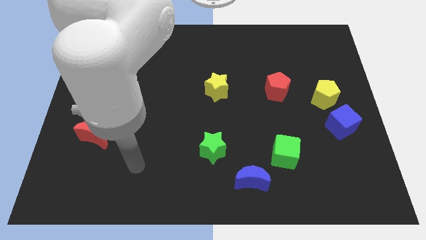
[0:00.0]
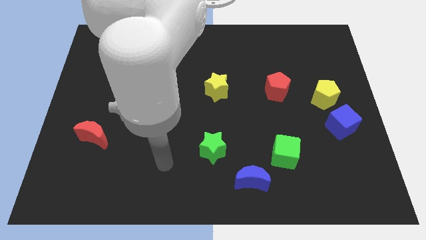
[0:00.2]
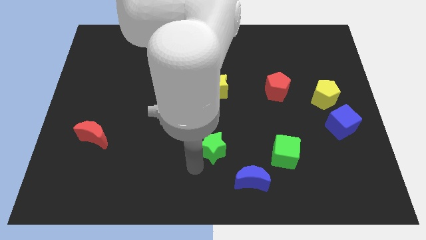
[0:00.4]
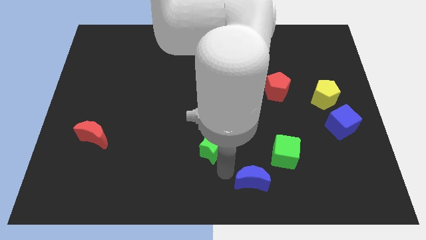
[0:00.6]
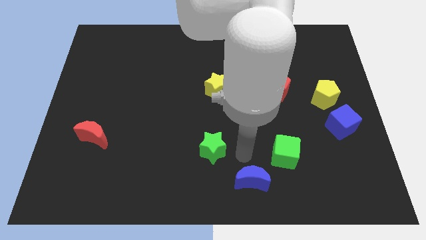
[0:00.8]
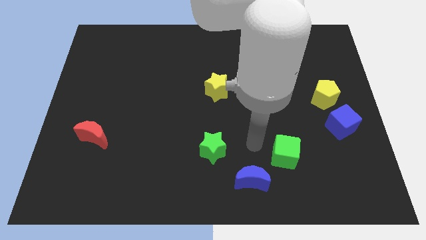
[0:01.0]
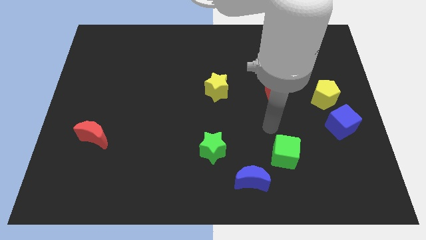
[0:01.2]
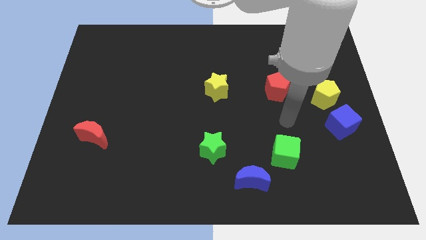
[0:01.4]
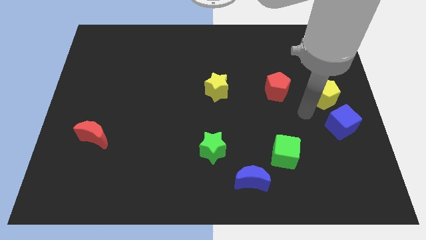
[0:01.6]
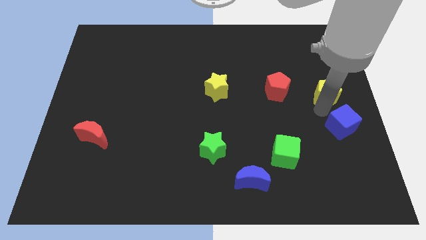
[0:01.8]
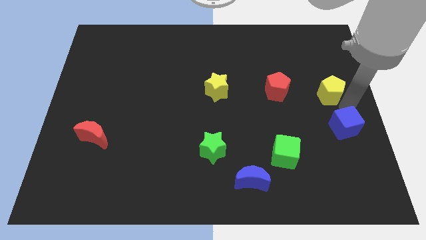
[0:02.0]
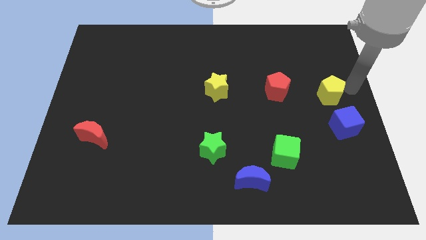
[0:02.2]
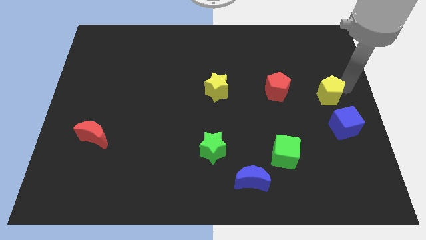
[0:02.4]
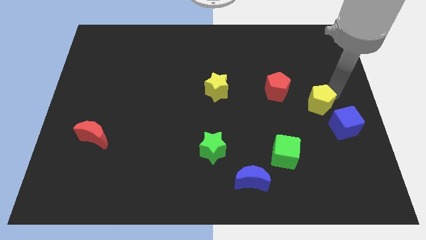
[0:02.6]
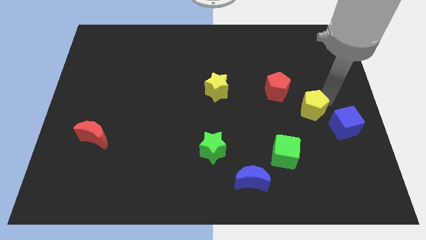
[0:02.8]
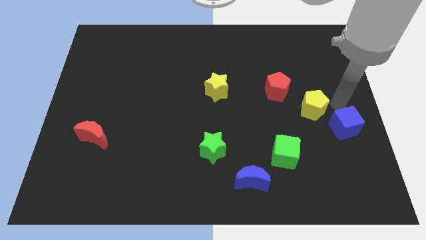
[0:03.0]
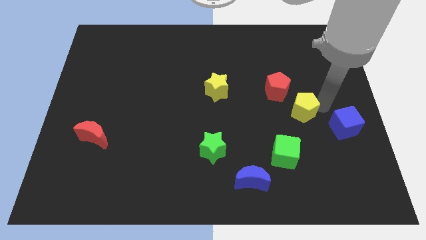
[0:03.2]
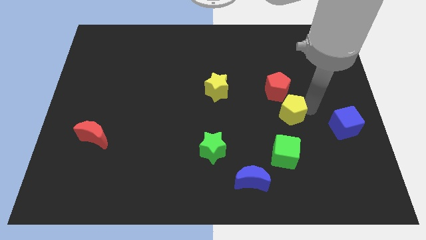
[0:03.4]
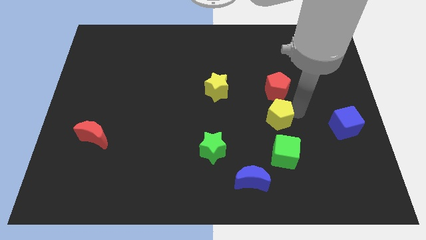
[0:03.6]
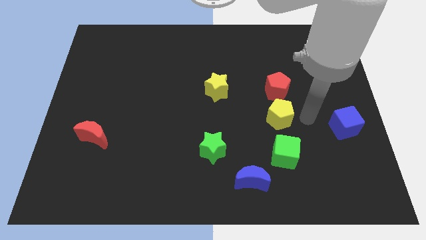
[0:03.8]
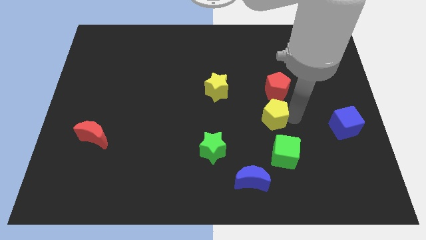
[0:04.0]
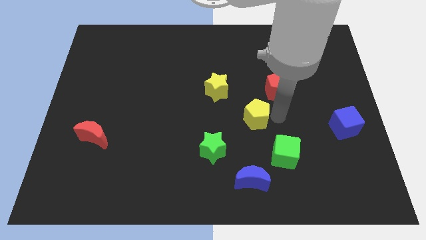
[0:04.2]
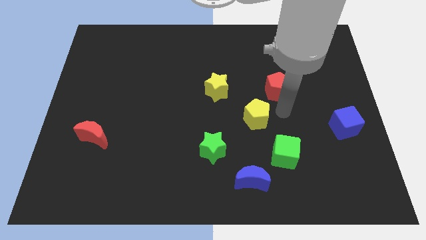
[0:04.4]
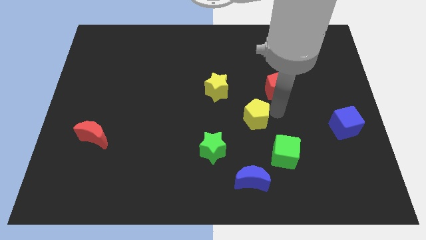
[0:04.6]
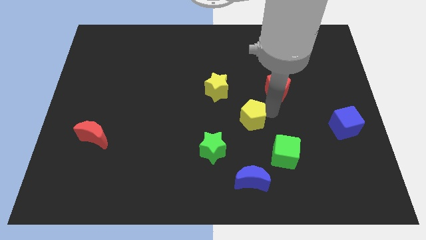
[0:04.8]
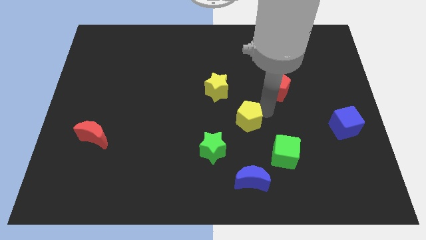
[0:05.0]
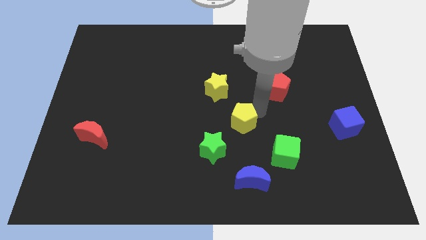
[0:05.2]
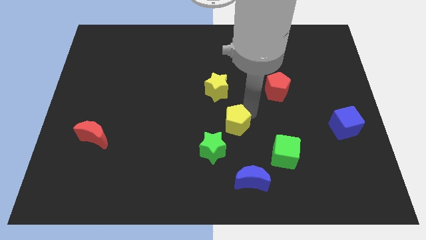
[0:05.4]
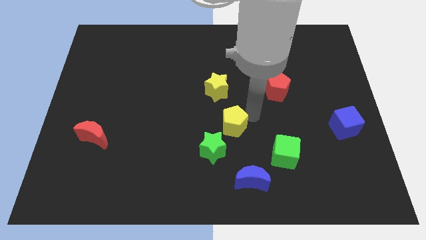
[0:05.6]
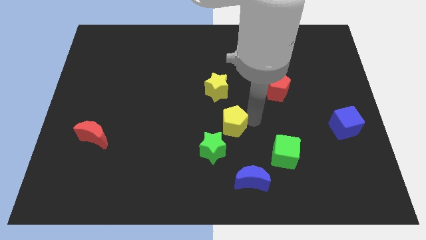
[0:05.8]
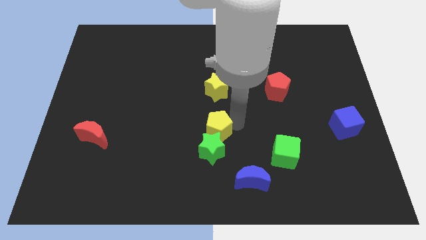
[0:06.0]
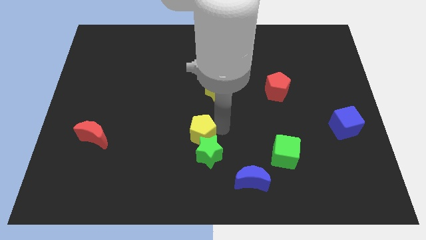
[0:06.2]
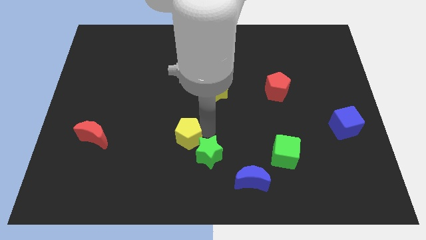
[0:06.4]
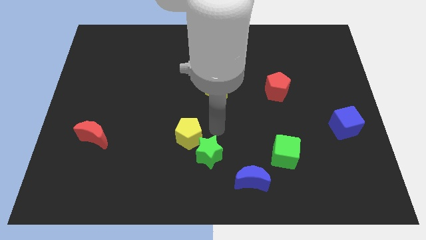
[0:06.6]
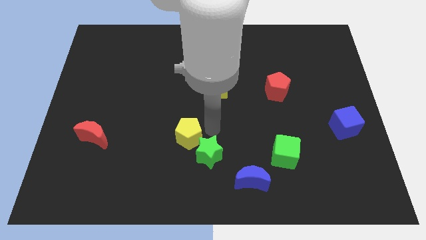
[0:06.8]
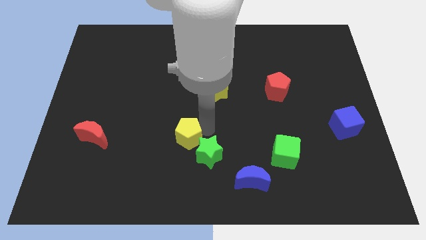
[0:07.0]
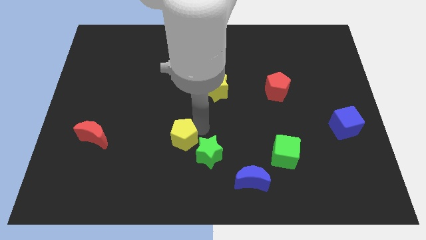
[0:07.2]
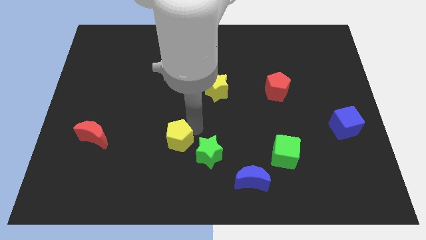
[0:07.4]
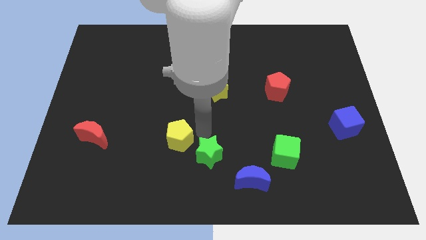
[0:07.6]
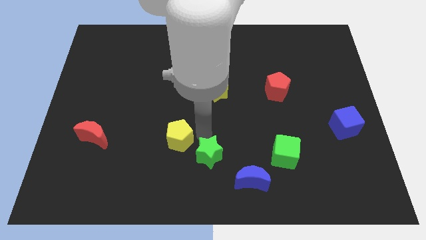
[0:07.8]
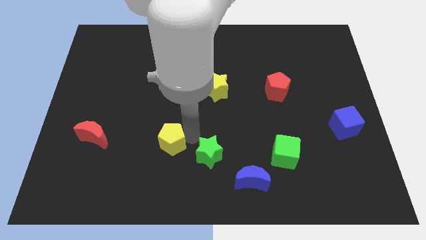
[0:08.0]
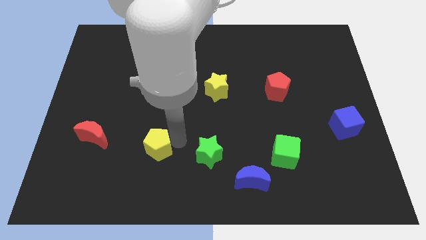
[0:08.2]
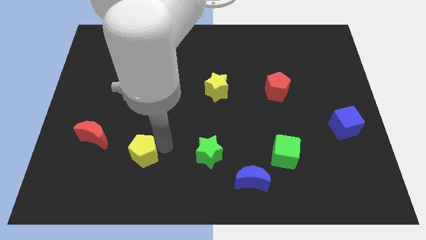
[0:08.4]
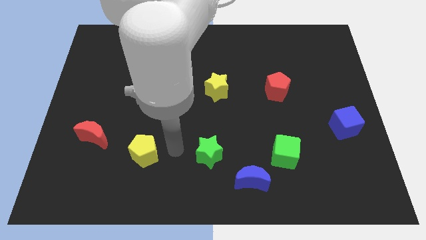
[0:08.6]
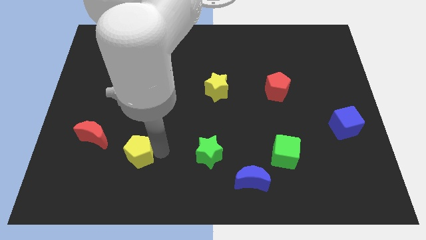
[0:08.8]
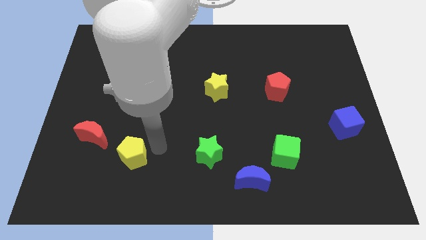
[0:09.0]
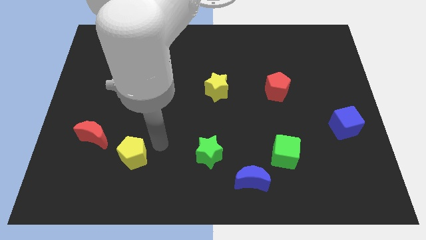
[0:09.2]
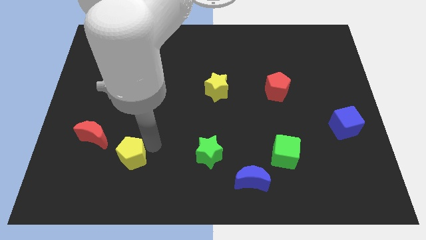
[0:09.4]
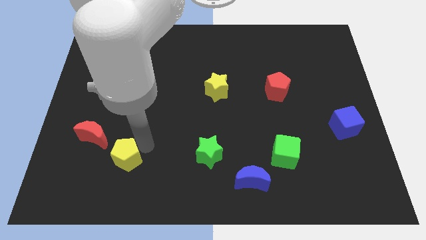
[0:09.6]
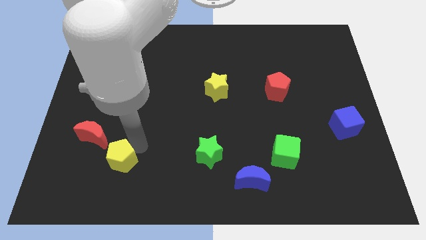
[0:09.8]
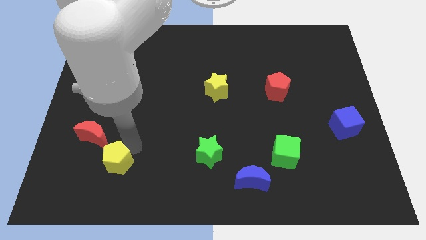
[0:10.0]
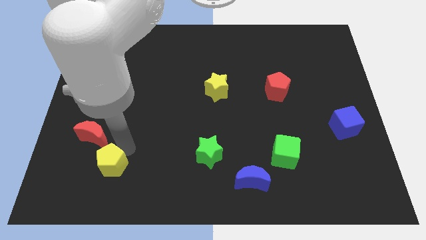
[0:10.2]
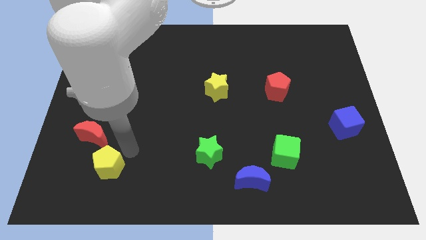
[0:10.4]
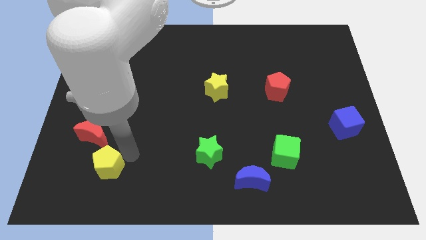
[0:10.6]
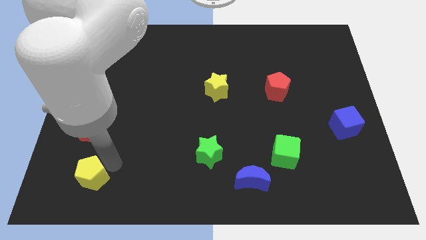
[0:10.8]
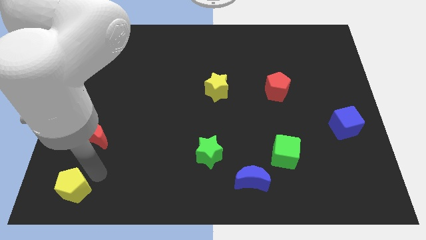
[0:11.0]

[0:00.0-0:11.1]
move the yellow pentagon to the bottom left

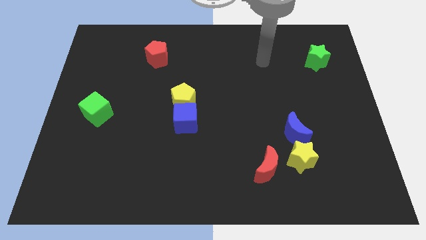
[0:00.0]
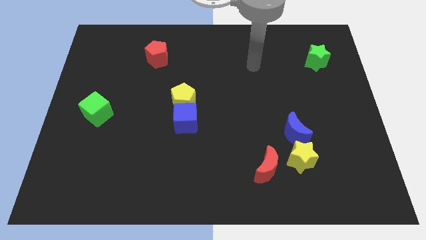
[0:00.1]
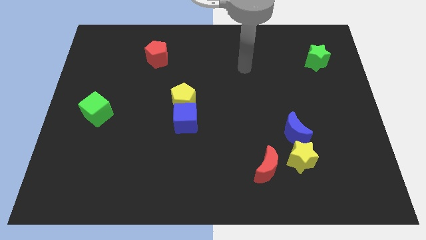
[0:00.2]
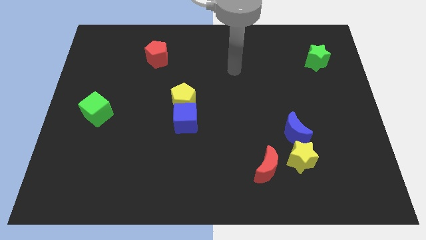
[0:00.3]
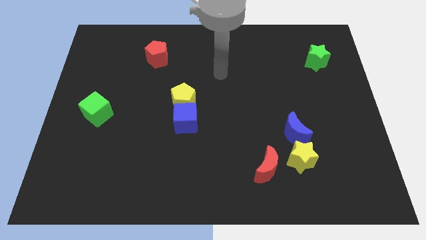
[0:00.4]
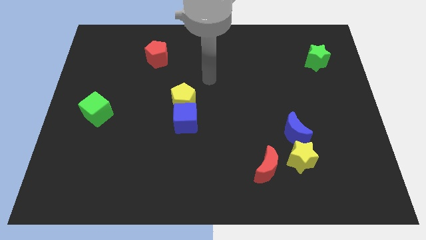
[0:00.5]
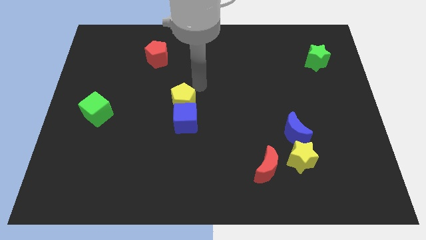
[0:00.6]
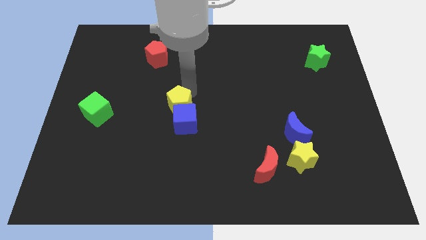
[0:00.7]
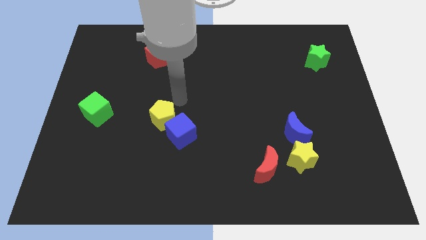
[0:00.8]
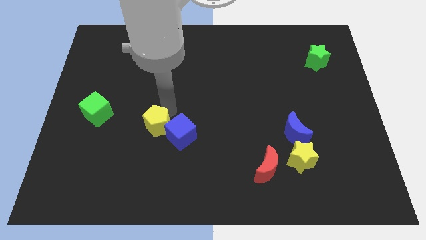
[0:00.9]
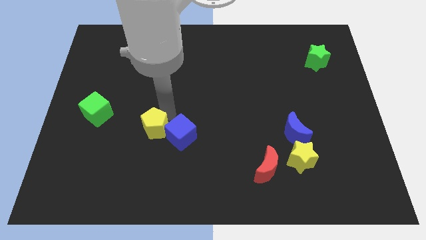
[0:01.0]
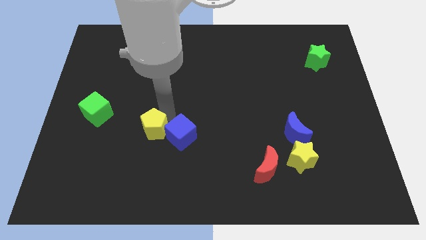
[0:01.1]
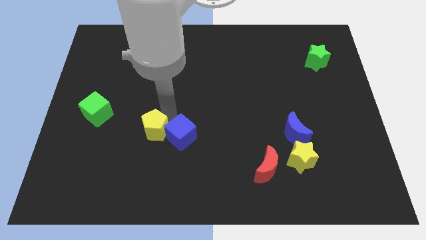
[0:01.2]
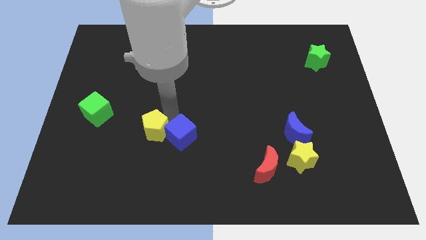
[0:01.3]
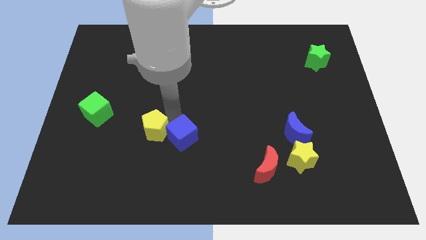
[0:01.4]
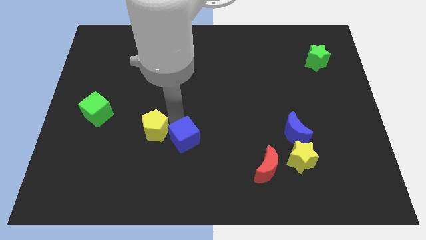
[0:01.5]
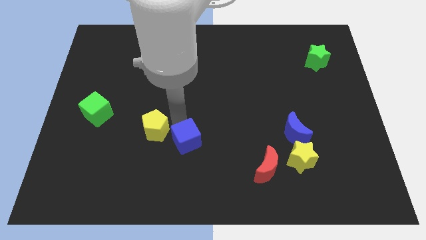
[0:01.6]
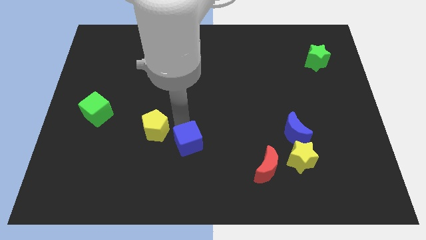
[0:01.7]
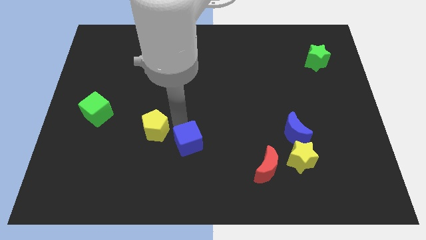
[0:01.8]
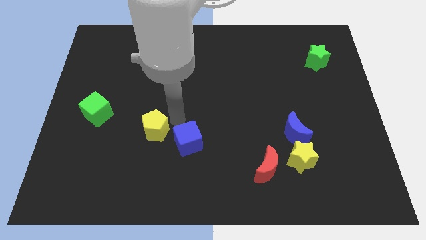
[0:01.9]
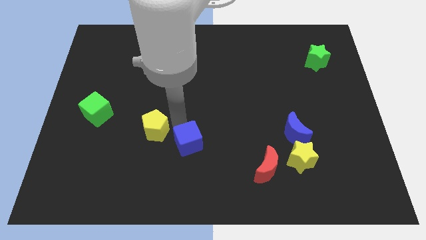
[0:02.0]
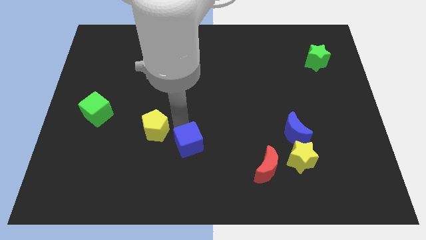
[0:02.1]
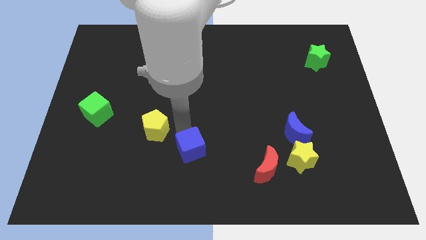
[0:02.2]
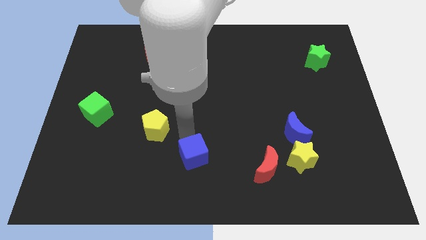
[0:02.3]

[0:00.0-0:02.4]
move the blue cube to the bottom
